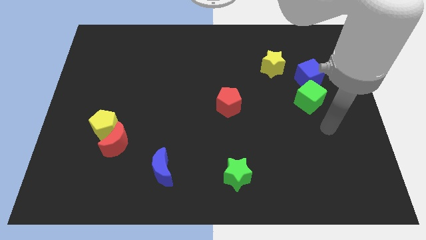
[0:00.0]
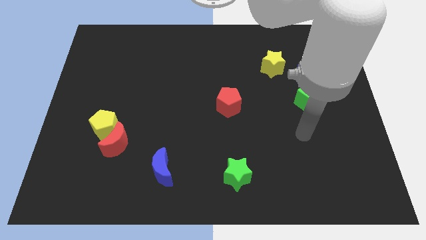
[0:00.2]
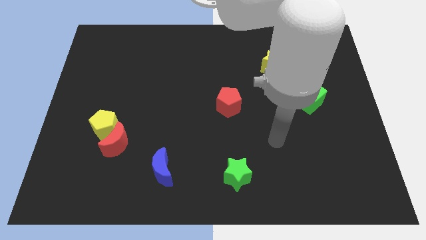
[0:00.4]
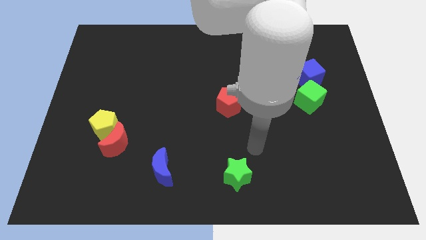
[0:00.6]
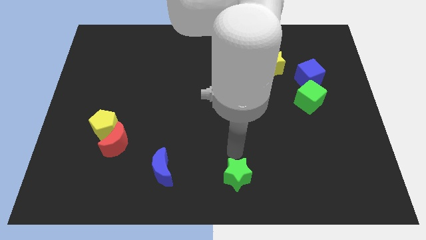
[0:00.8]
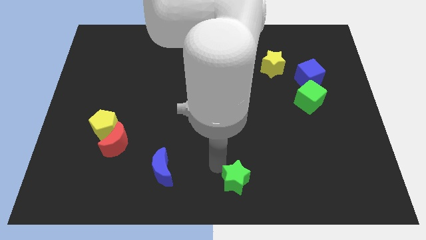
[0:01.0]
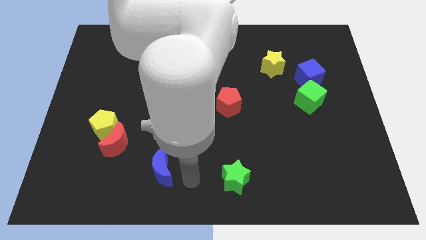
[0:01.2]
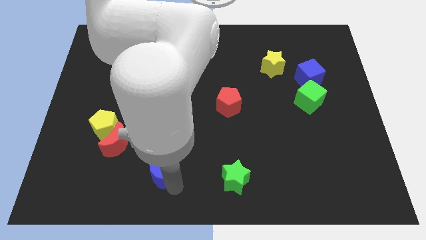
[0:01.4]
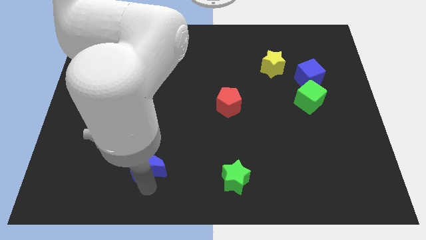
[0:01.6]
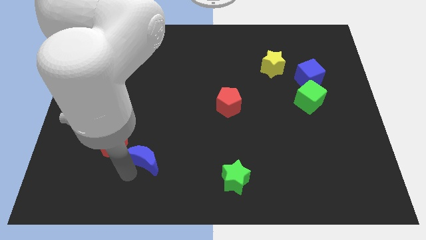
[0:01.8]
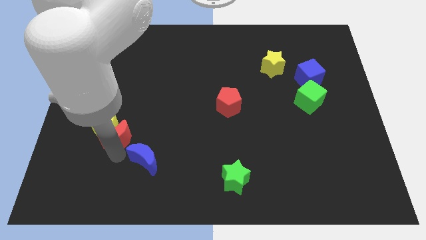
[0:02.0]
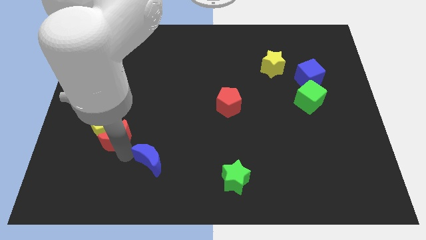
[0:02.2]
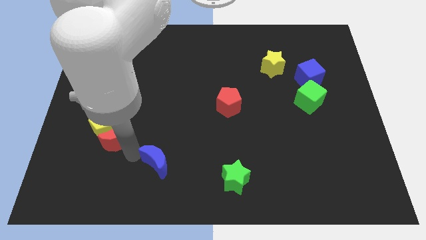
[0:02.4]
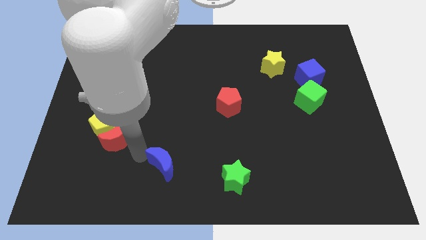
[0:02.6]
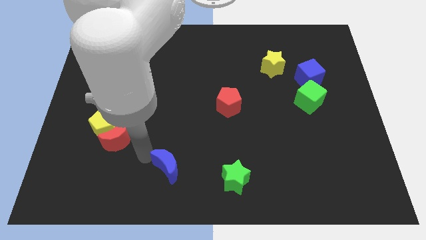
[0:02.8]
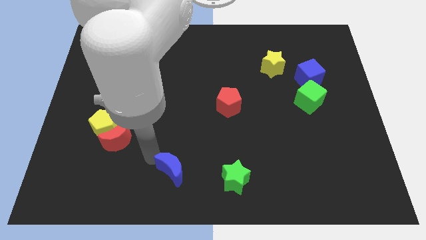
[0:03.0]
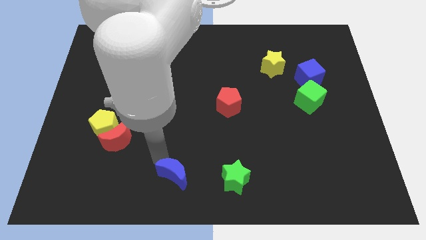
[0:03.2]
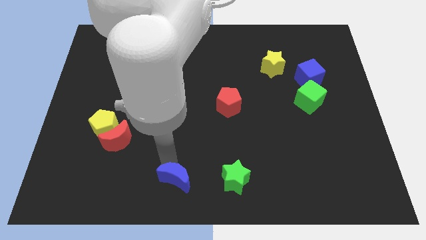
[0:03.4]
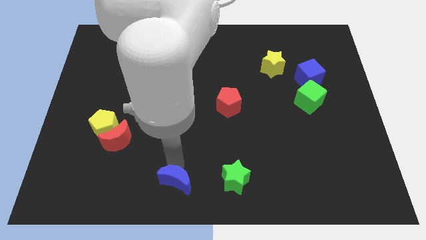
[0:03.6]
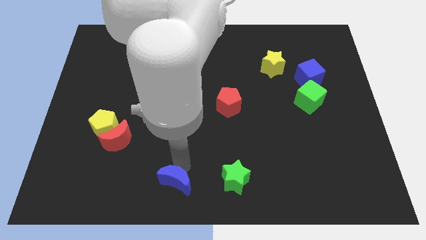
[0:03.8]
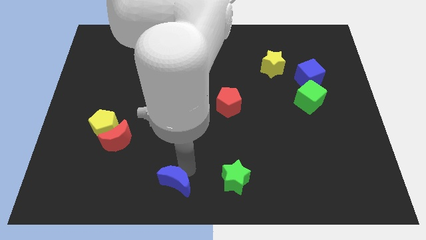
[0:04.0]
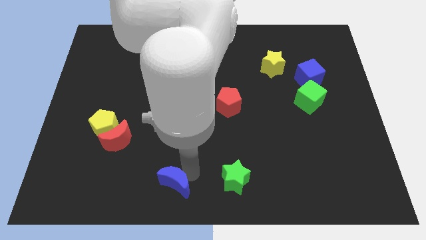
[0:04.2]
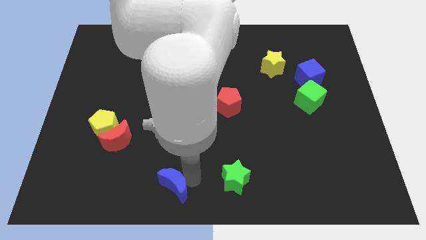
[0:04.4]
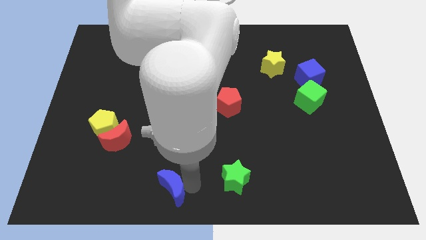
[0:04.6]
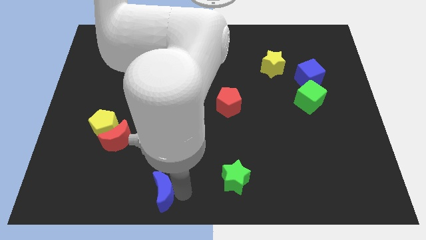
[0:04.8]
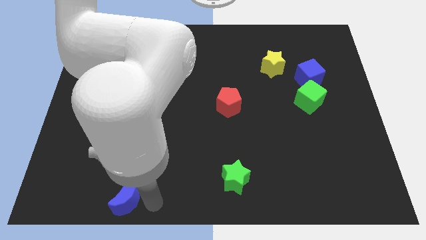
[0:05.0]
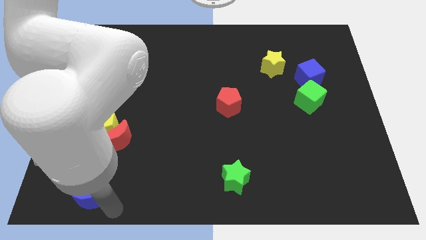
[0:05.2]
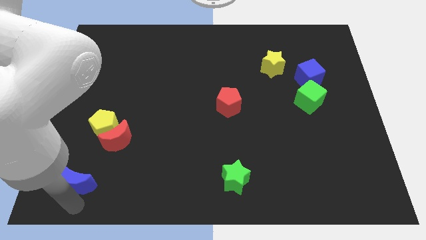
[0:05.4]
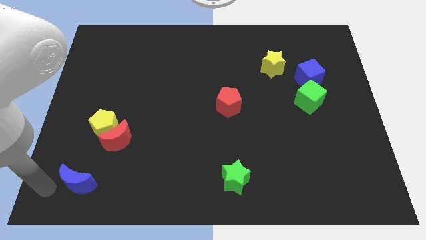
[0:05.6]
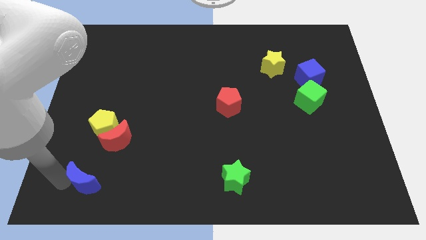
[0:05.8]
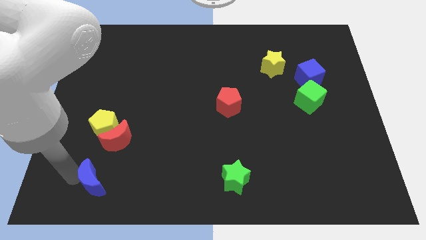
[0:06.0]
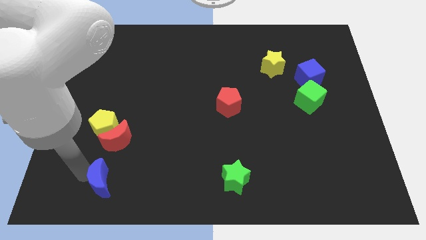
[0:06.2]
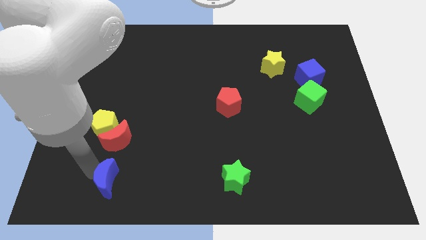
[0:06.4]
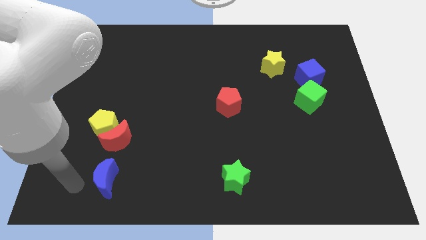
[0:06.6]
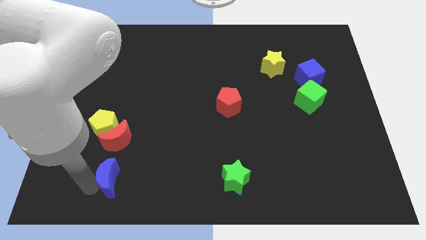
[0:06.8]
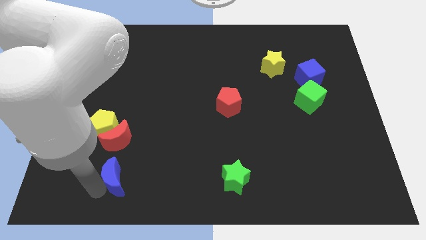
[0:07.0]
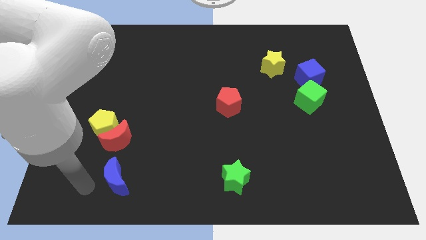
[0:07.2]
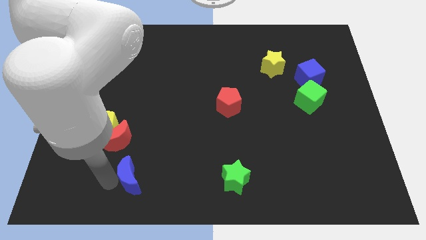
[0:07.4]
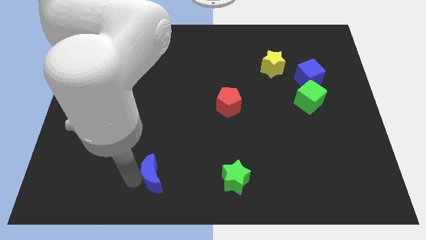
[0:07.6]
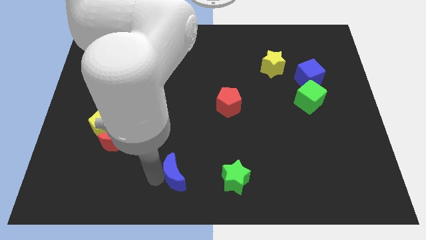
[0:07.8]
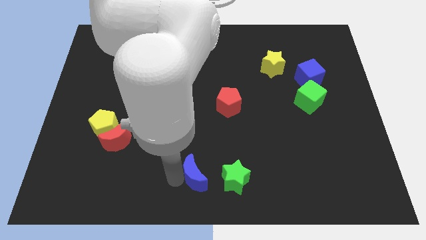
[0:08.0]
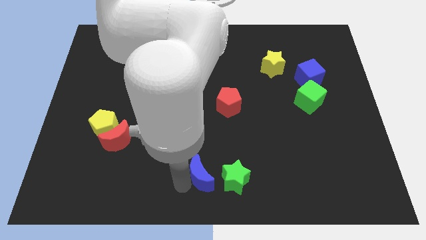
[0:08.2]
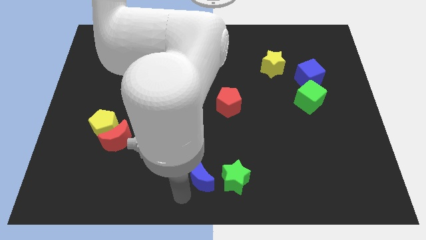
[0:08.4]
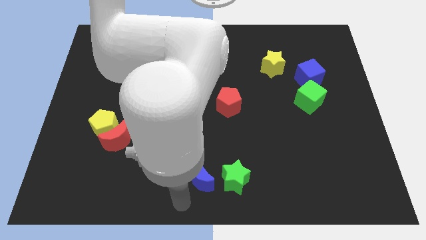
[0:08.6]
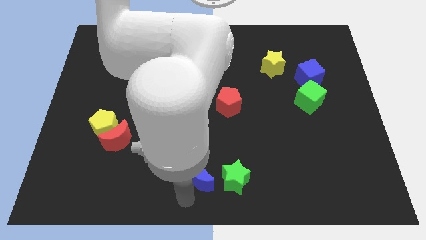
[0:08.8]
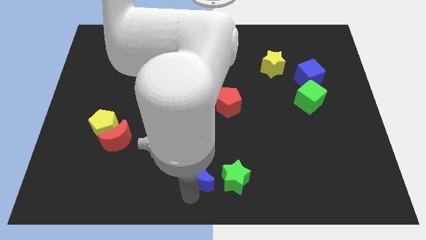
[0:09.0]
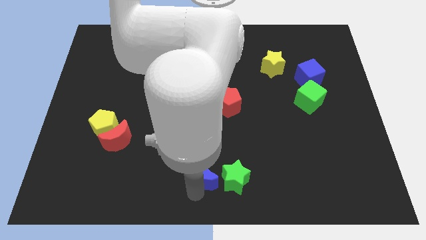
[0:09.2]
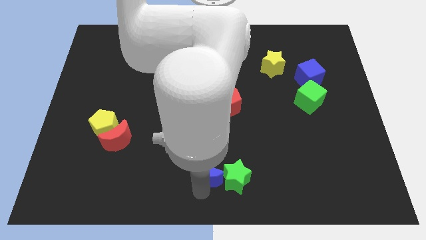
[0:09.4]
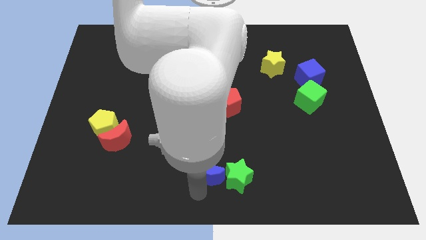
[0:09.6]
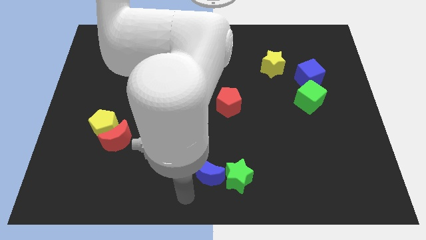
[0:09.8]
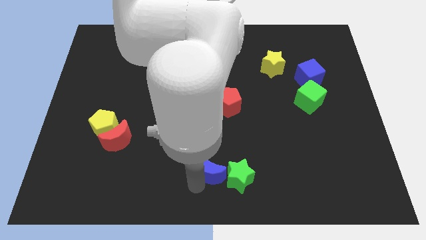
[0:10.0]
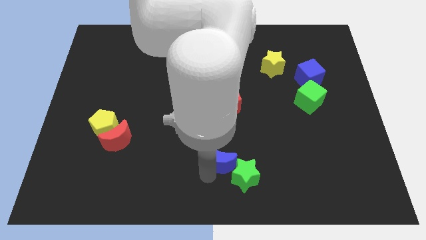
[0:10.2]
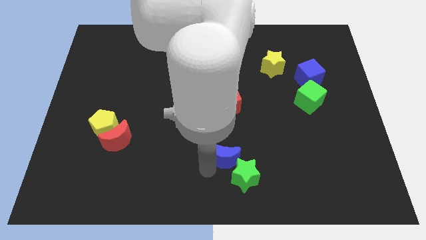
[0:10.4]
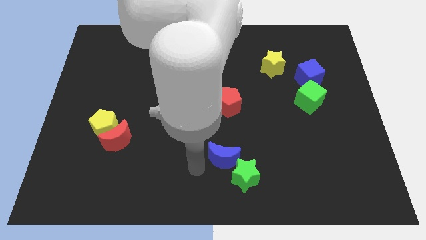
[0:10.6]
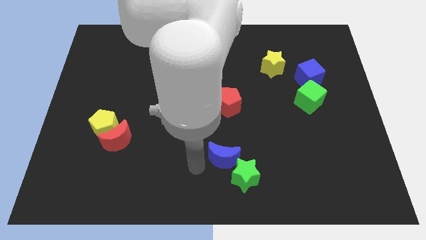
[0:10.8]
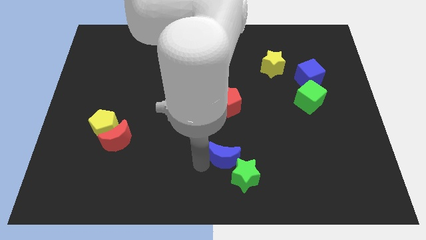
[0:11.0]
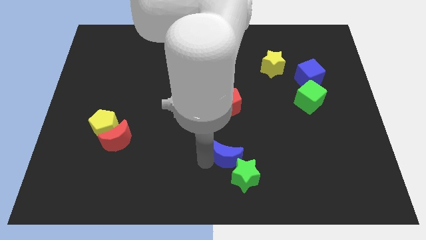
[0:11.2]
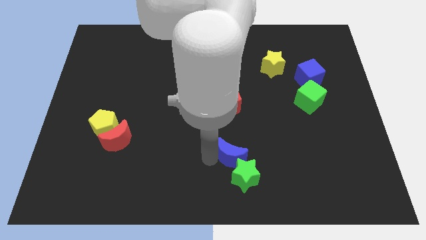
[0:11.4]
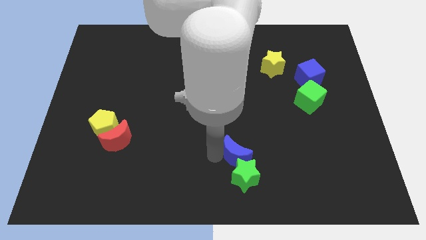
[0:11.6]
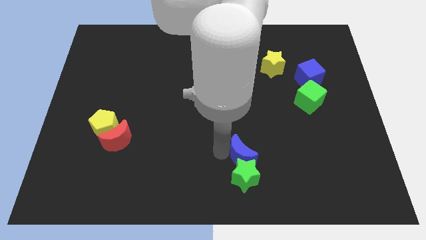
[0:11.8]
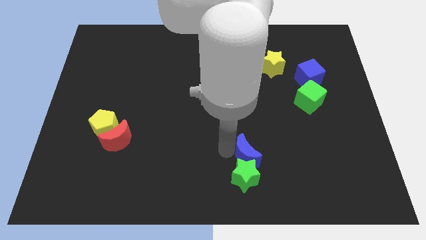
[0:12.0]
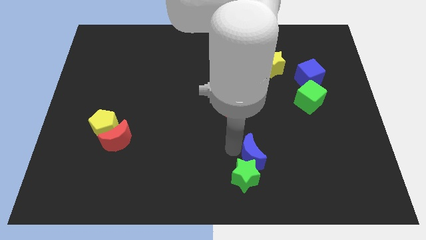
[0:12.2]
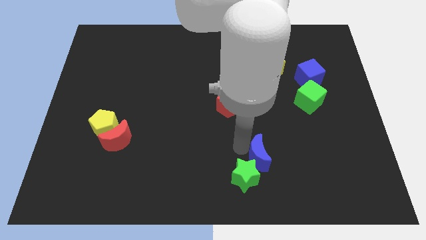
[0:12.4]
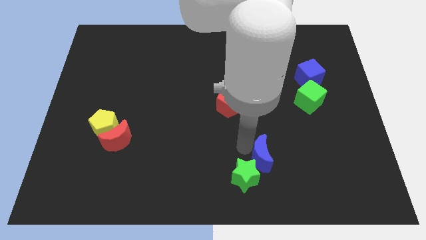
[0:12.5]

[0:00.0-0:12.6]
slide the blue moon right

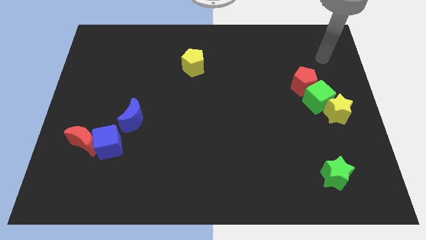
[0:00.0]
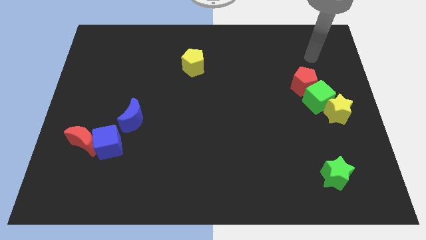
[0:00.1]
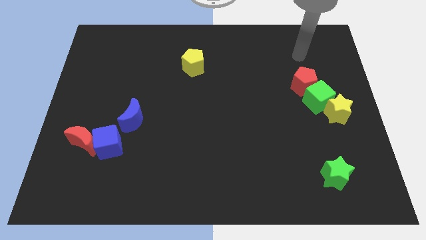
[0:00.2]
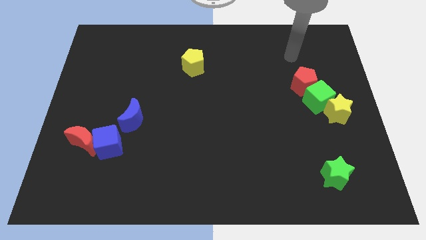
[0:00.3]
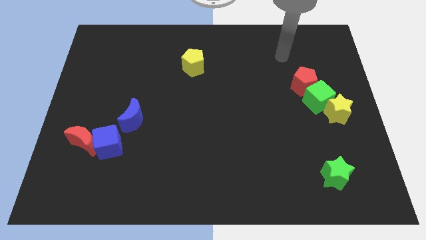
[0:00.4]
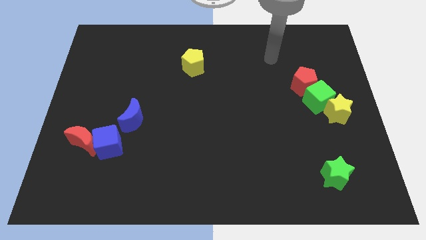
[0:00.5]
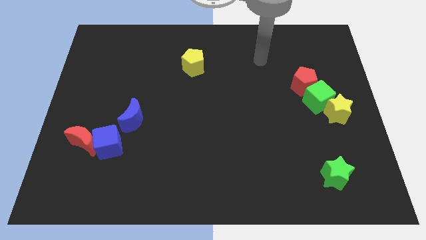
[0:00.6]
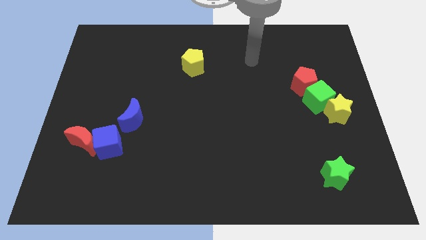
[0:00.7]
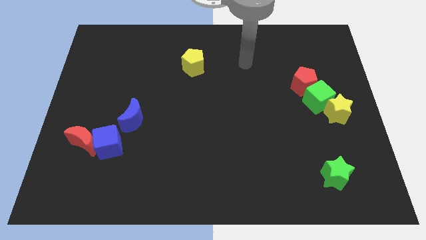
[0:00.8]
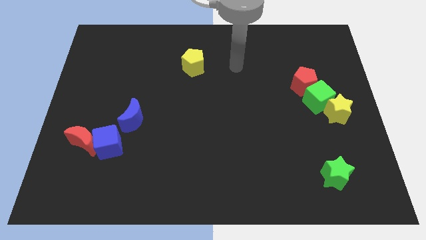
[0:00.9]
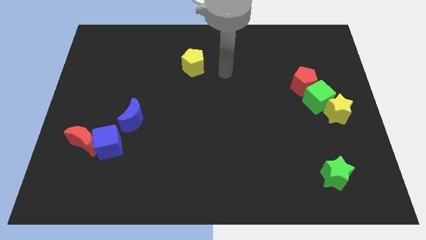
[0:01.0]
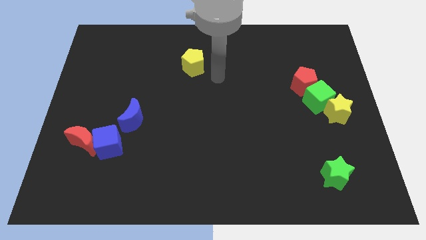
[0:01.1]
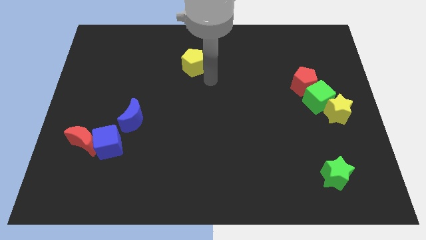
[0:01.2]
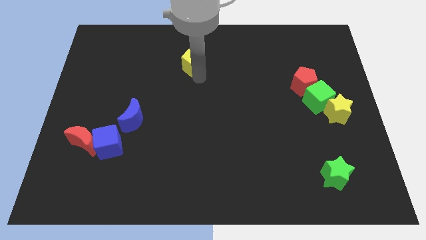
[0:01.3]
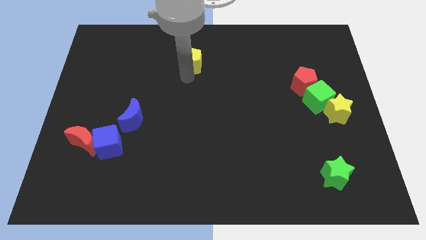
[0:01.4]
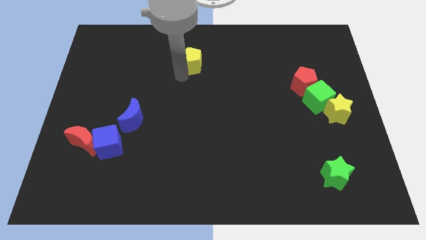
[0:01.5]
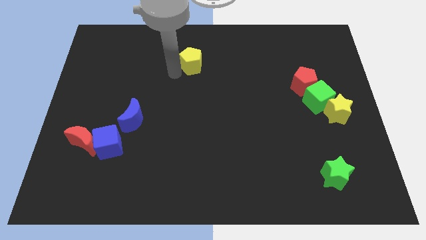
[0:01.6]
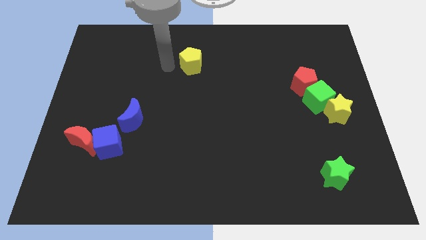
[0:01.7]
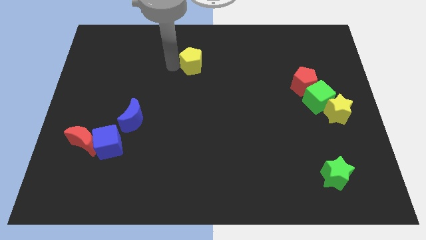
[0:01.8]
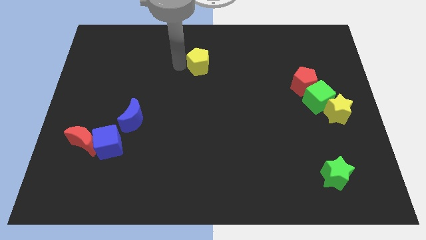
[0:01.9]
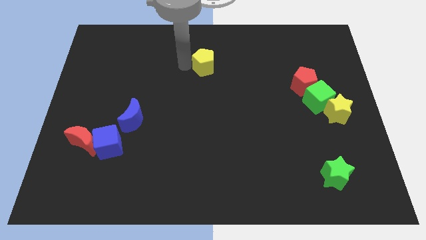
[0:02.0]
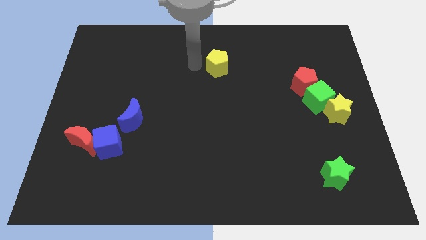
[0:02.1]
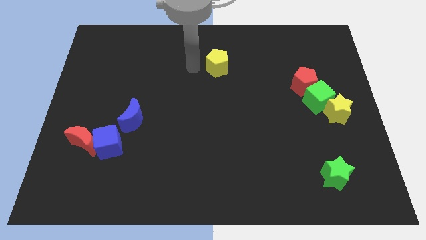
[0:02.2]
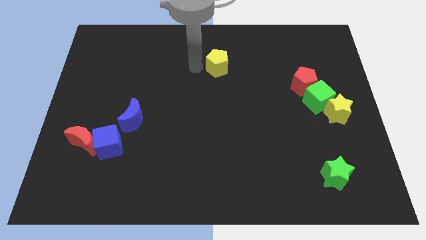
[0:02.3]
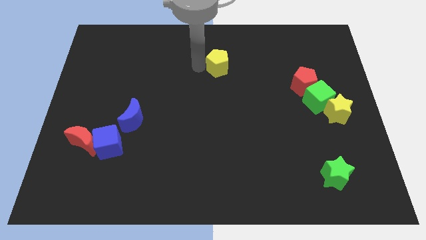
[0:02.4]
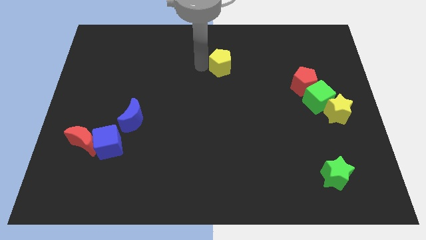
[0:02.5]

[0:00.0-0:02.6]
slightly push the yellow pentagon right
